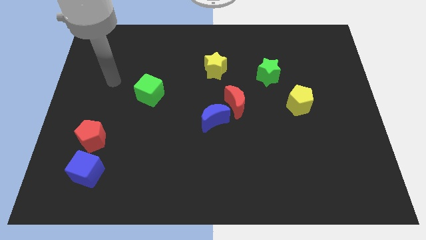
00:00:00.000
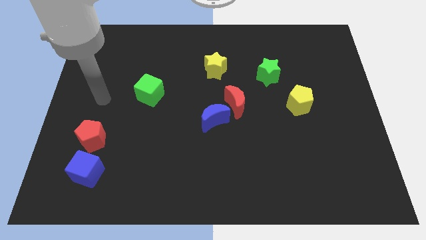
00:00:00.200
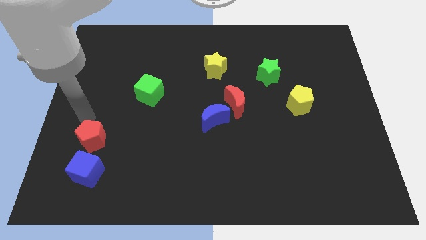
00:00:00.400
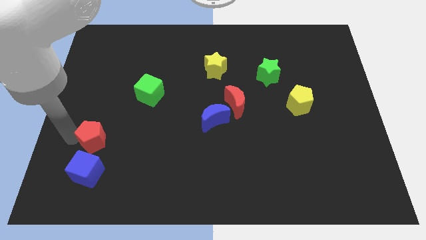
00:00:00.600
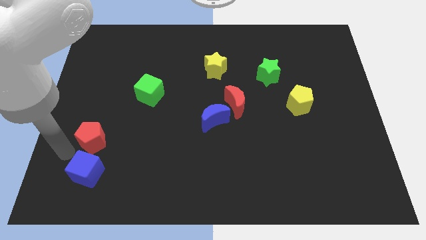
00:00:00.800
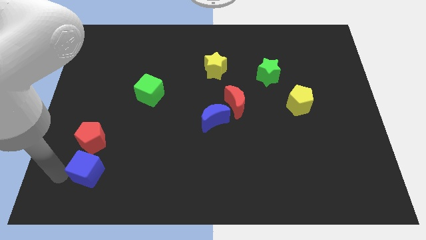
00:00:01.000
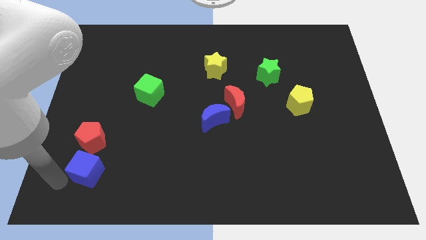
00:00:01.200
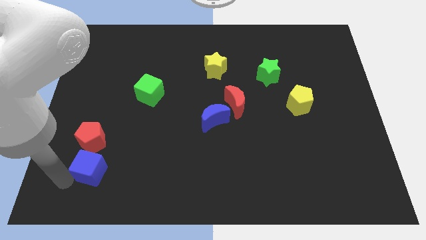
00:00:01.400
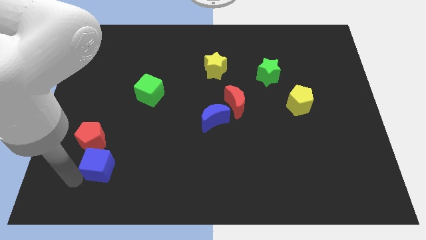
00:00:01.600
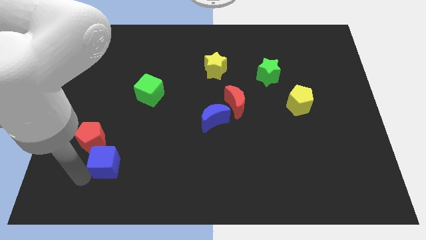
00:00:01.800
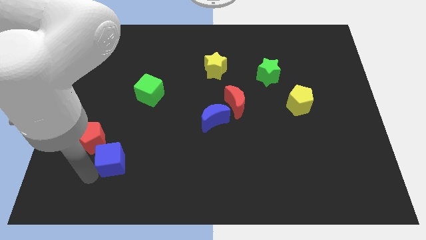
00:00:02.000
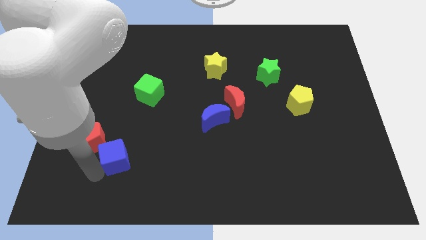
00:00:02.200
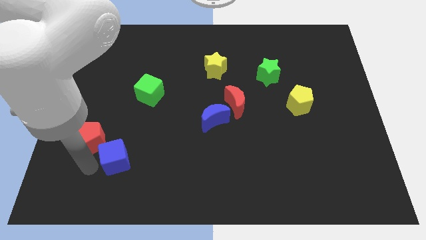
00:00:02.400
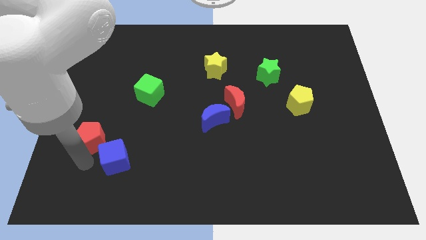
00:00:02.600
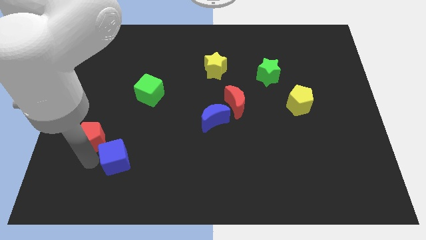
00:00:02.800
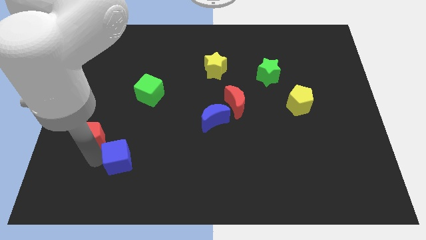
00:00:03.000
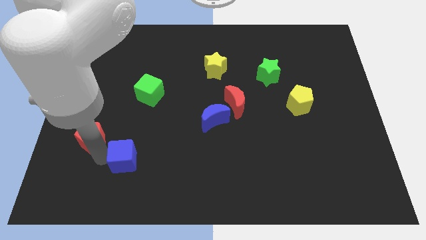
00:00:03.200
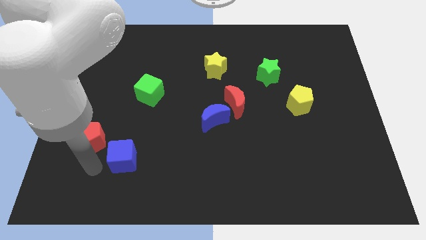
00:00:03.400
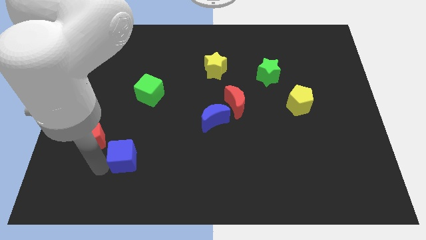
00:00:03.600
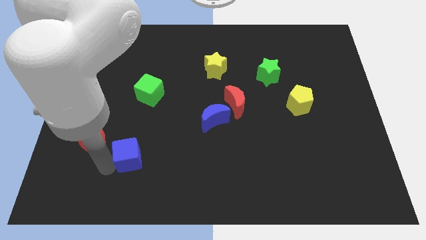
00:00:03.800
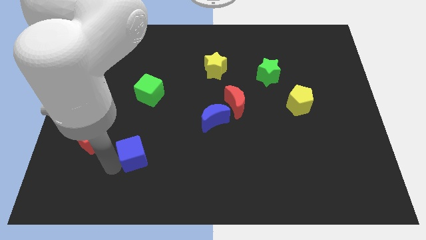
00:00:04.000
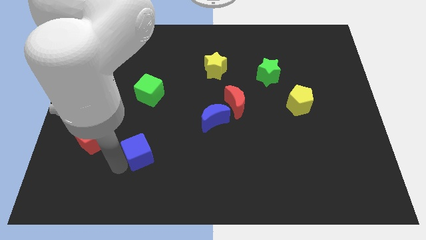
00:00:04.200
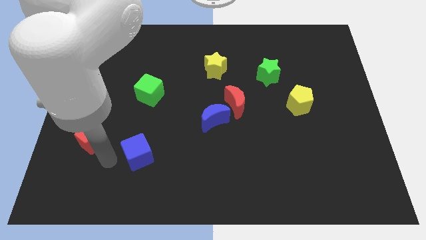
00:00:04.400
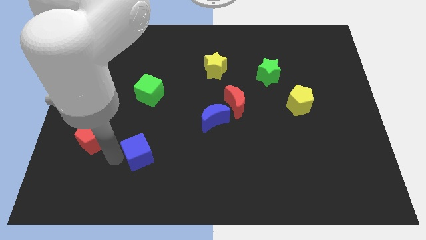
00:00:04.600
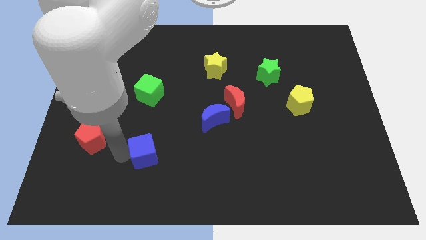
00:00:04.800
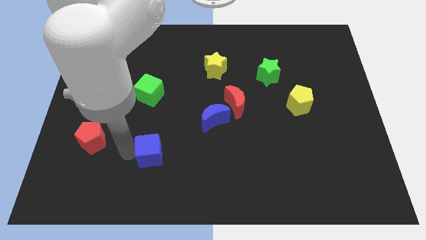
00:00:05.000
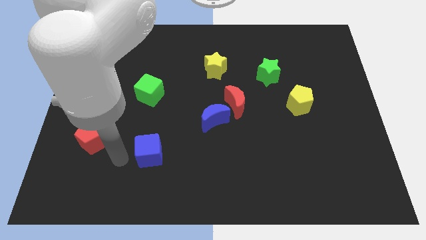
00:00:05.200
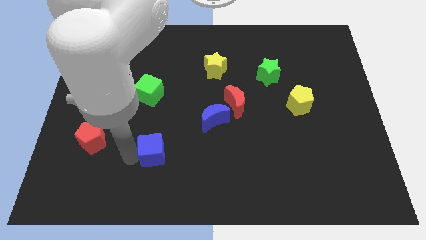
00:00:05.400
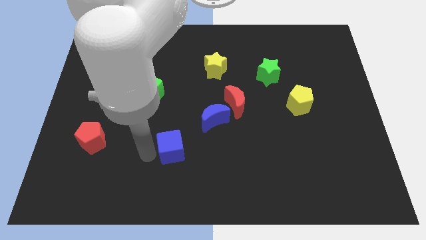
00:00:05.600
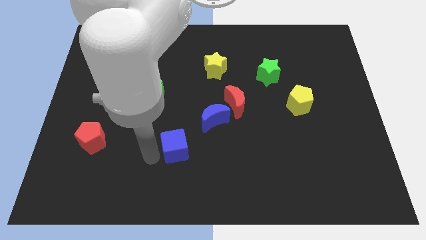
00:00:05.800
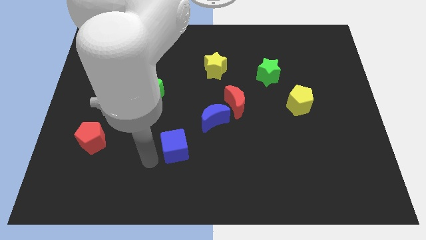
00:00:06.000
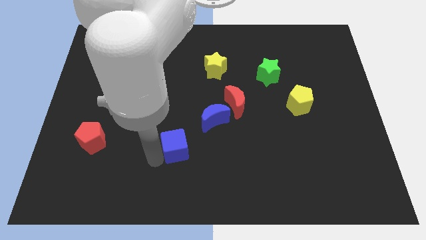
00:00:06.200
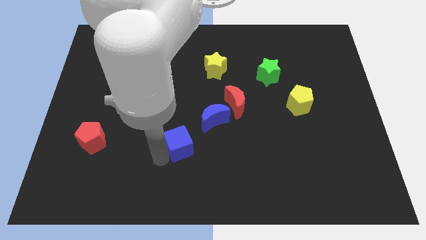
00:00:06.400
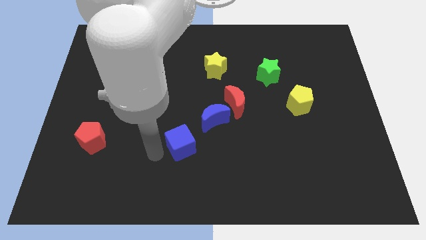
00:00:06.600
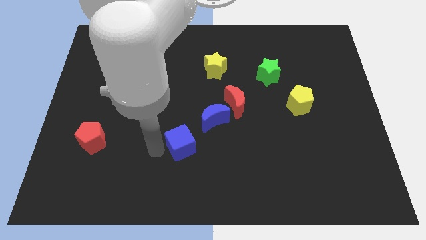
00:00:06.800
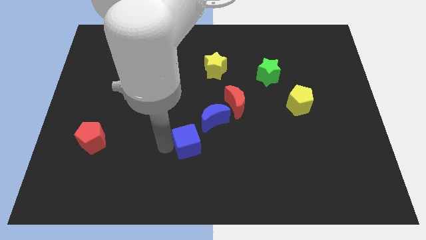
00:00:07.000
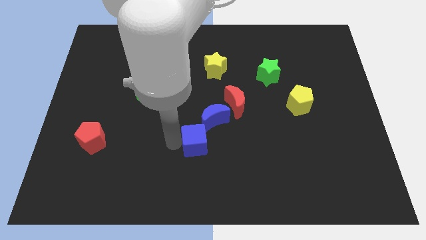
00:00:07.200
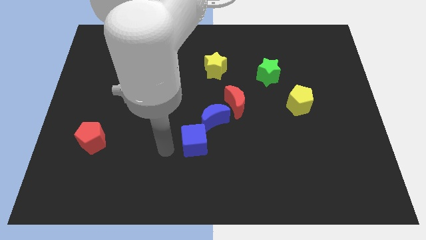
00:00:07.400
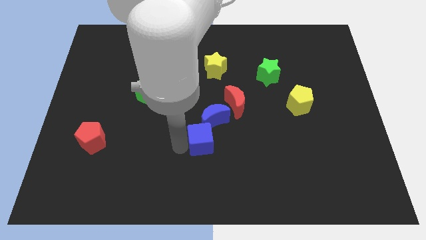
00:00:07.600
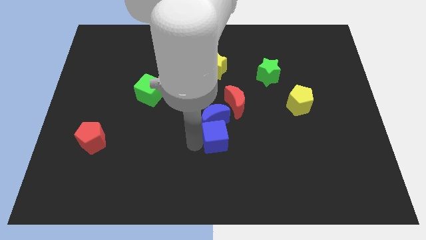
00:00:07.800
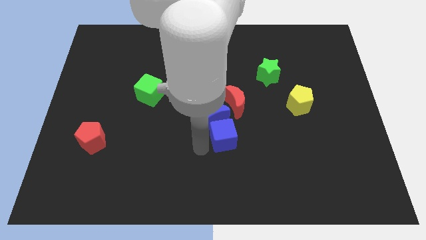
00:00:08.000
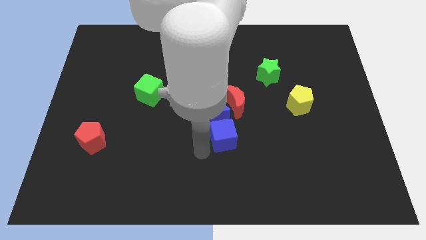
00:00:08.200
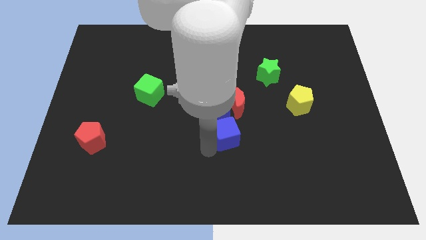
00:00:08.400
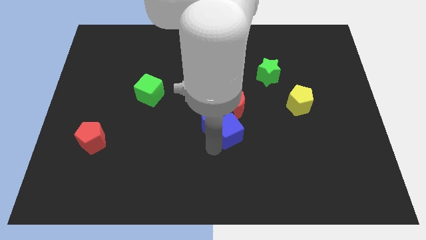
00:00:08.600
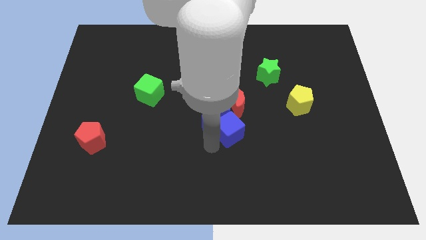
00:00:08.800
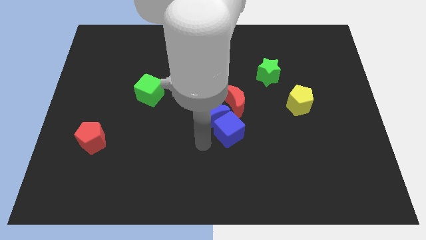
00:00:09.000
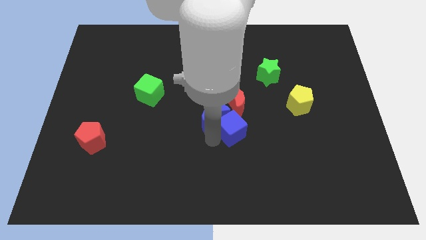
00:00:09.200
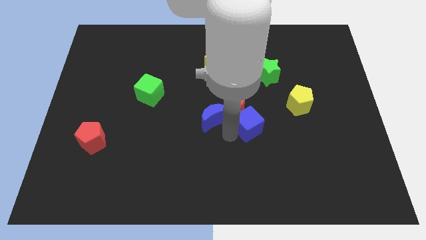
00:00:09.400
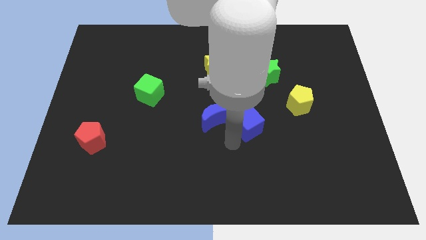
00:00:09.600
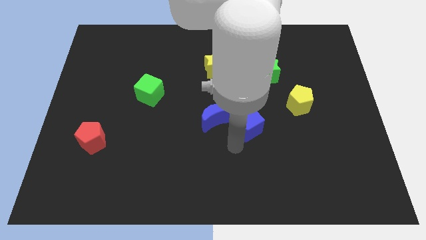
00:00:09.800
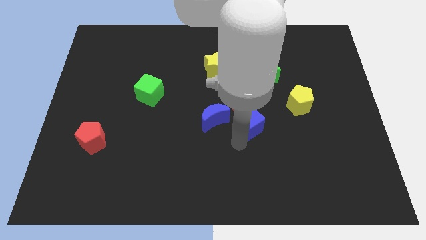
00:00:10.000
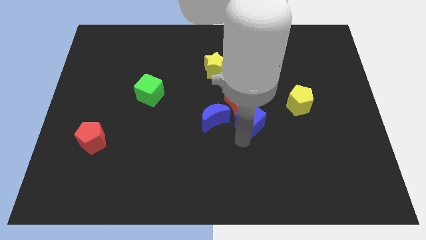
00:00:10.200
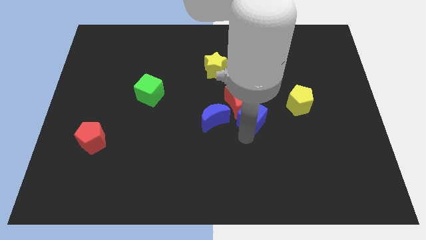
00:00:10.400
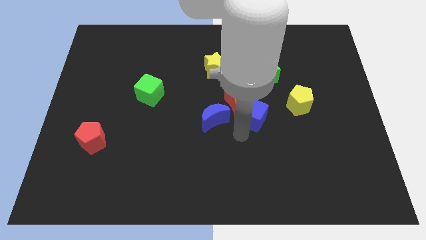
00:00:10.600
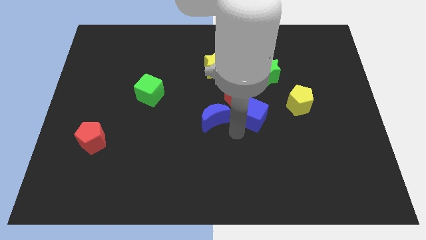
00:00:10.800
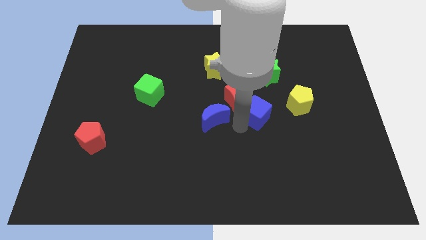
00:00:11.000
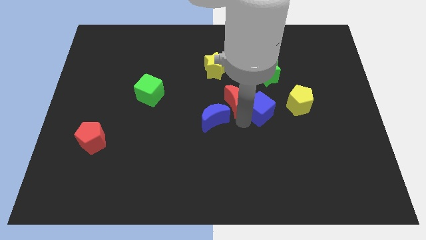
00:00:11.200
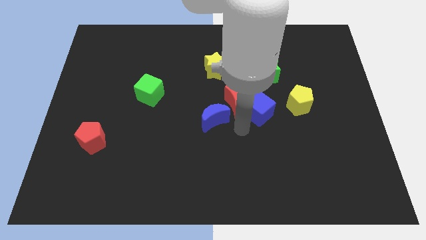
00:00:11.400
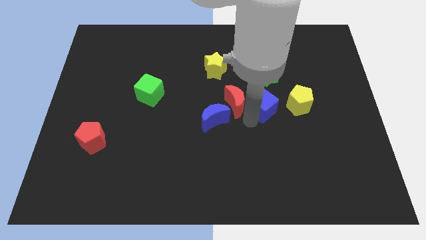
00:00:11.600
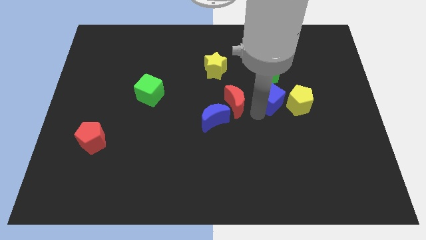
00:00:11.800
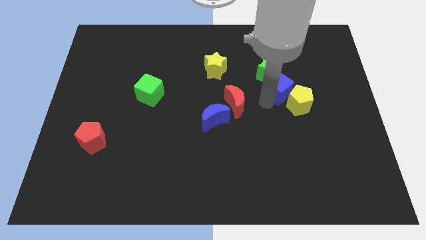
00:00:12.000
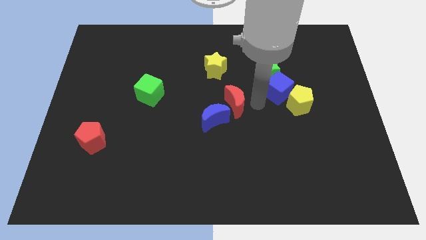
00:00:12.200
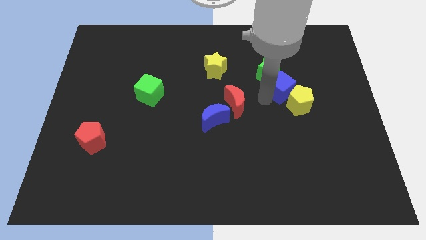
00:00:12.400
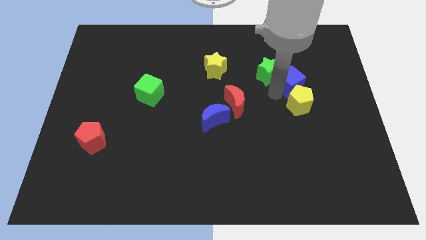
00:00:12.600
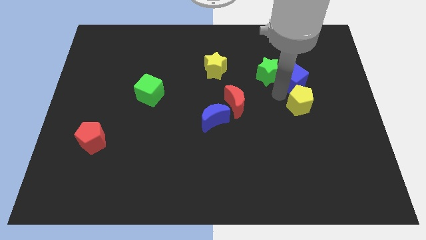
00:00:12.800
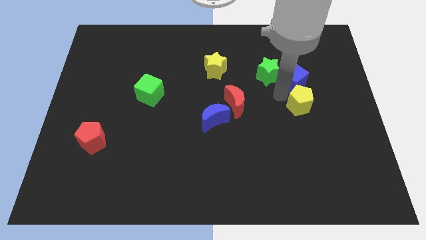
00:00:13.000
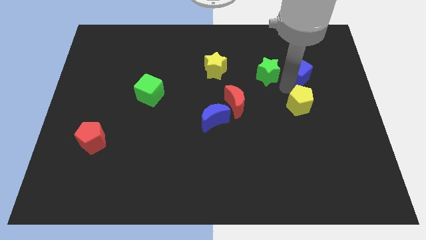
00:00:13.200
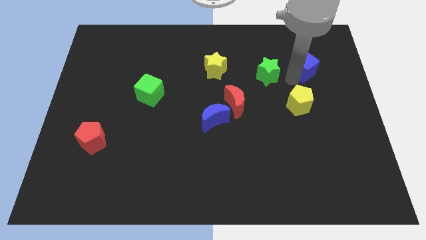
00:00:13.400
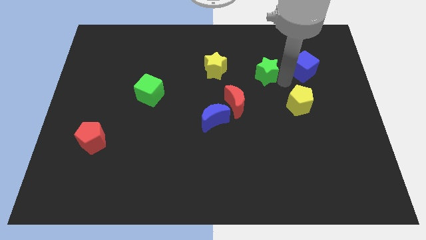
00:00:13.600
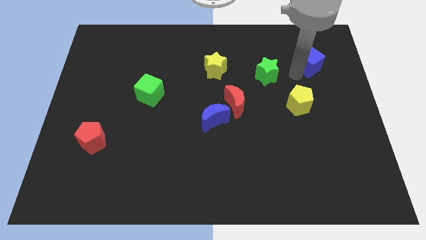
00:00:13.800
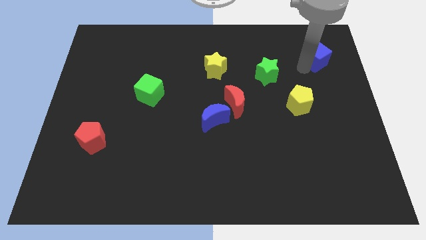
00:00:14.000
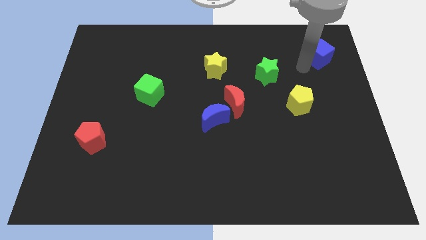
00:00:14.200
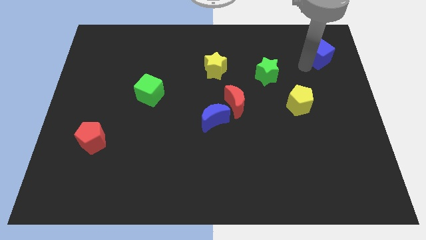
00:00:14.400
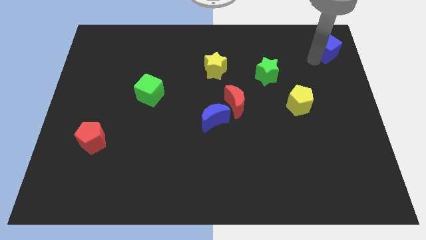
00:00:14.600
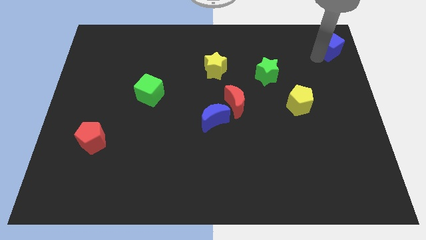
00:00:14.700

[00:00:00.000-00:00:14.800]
put the blue cube to the top right corner
